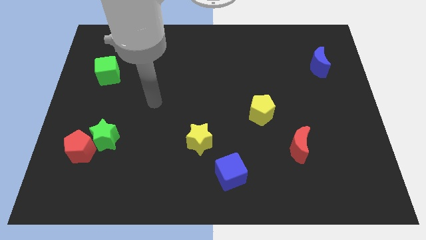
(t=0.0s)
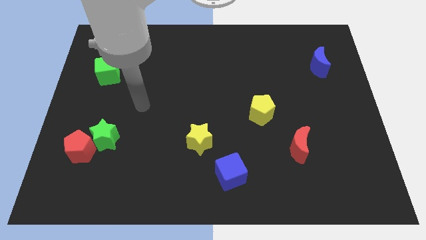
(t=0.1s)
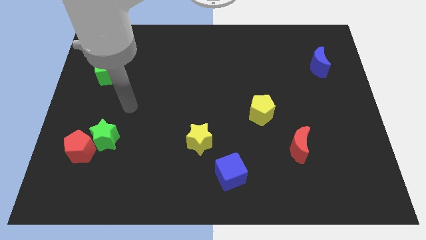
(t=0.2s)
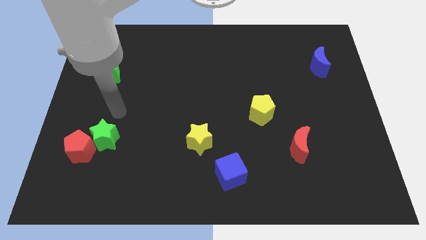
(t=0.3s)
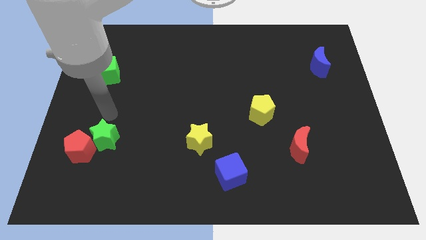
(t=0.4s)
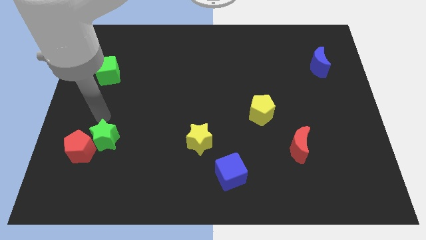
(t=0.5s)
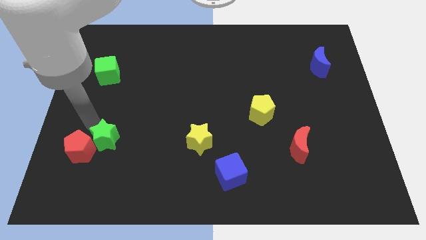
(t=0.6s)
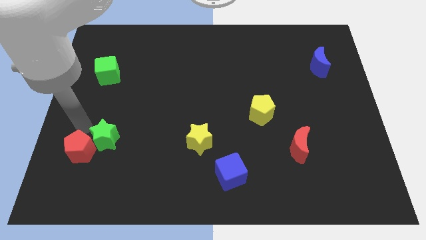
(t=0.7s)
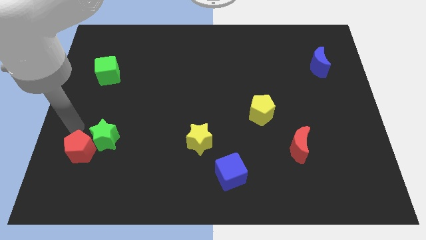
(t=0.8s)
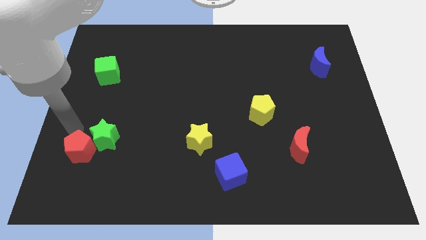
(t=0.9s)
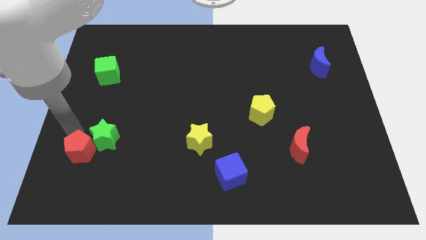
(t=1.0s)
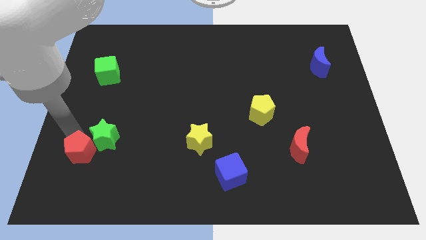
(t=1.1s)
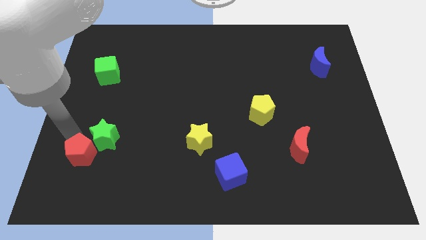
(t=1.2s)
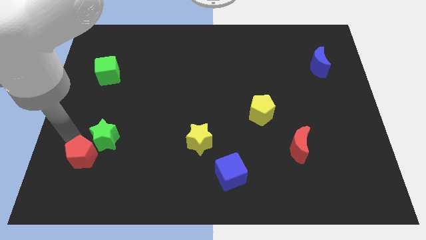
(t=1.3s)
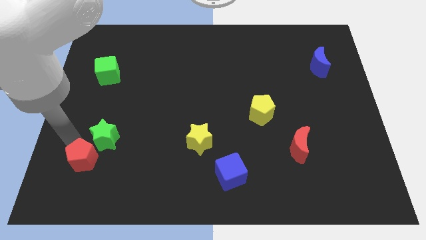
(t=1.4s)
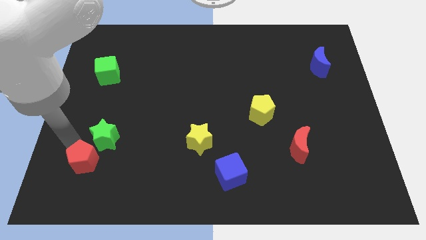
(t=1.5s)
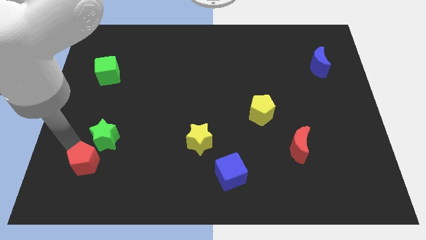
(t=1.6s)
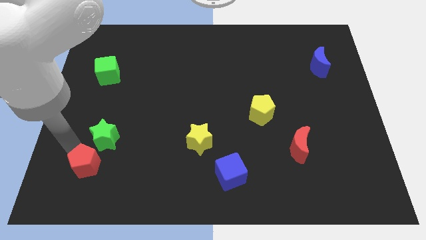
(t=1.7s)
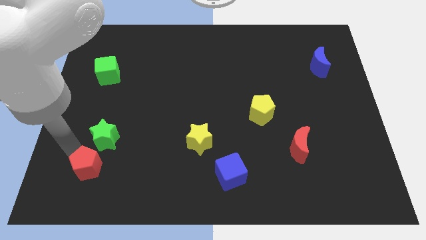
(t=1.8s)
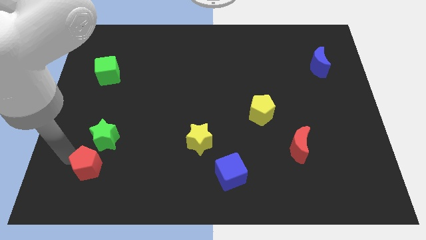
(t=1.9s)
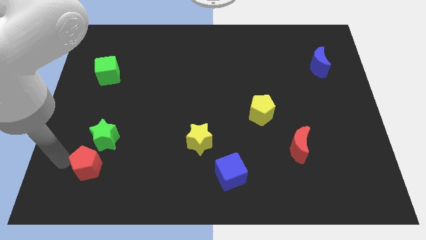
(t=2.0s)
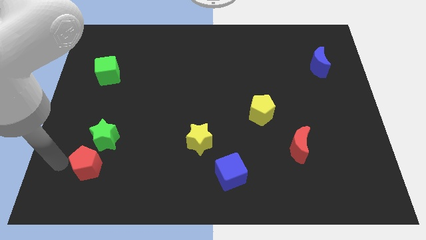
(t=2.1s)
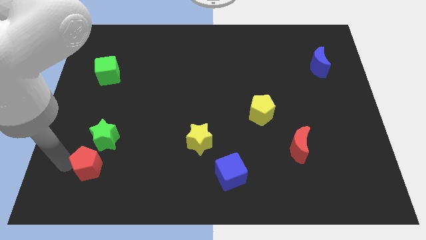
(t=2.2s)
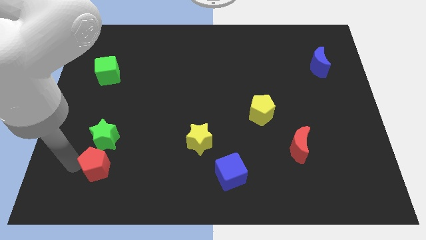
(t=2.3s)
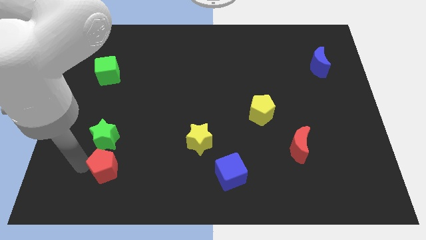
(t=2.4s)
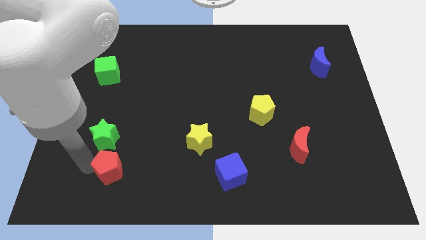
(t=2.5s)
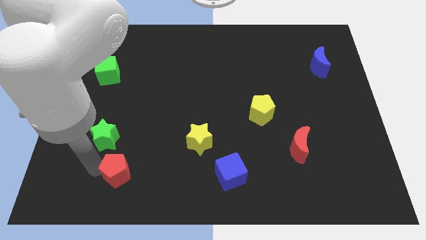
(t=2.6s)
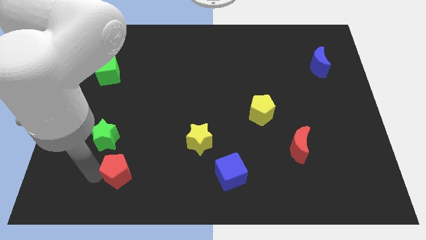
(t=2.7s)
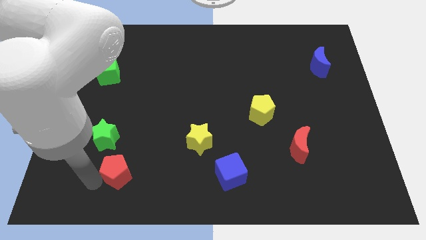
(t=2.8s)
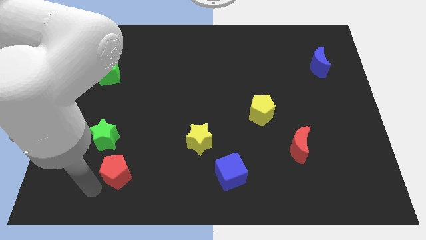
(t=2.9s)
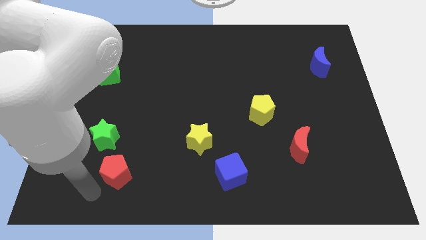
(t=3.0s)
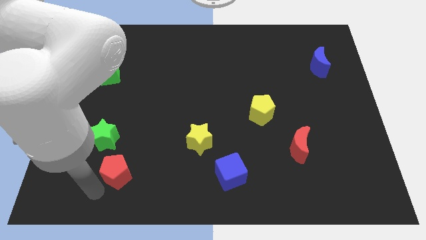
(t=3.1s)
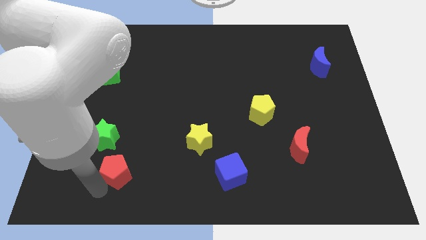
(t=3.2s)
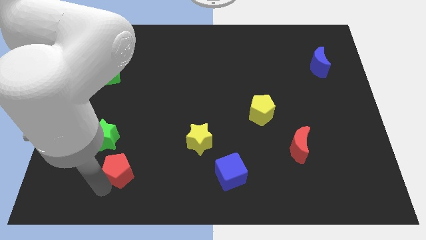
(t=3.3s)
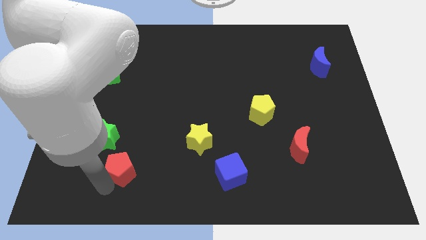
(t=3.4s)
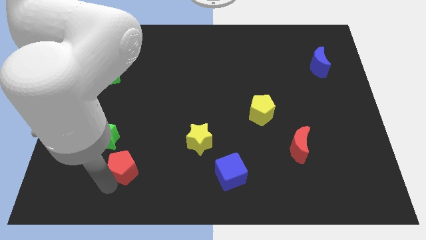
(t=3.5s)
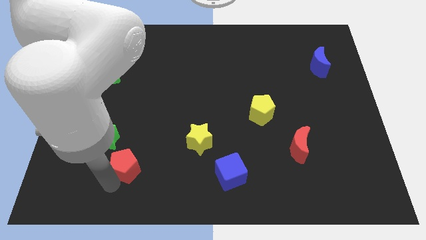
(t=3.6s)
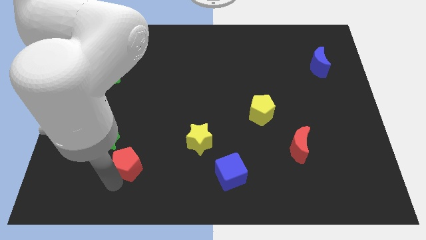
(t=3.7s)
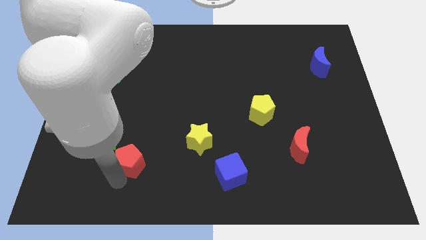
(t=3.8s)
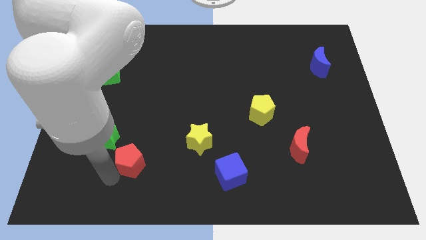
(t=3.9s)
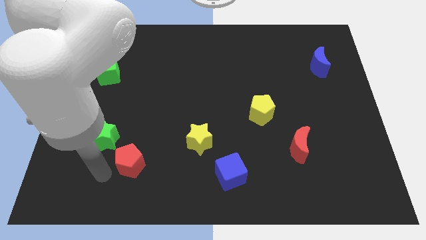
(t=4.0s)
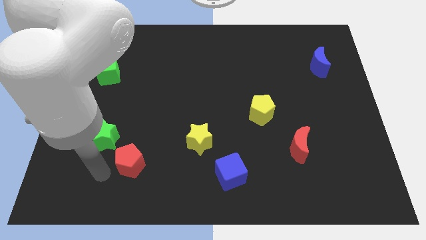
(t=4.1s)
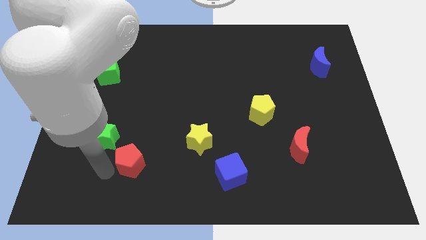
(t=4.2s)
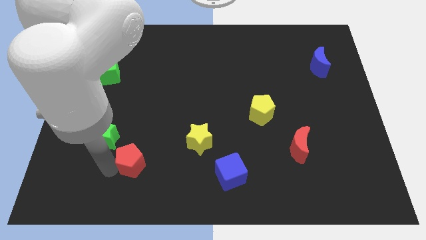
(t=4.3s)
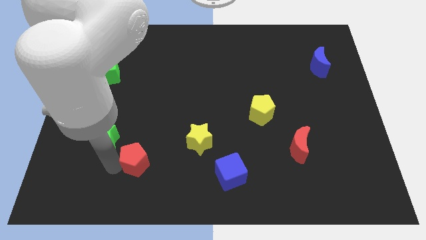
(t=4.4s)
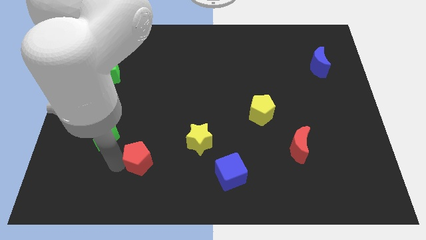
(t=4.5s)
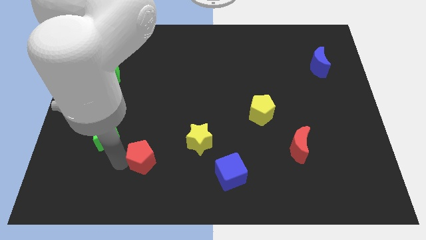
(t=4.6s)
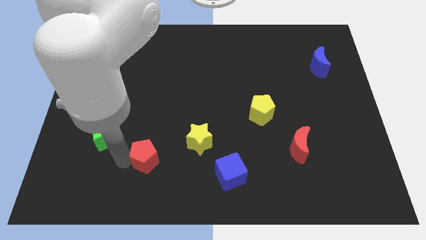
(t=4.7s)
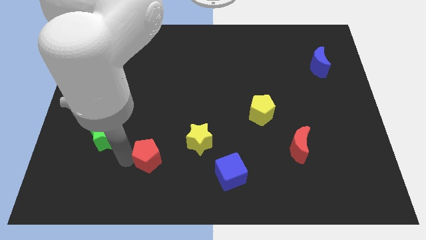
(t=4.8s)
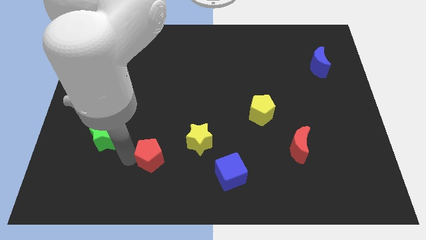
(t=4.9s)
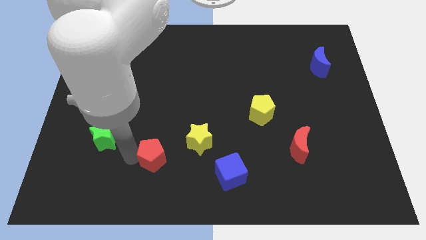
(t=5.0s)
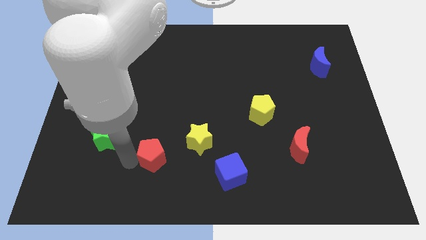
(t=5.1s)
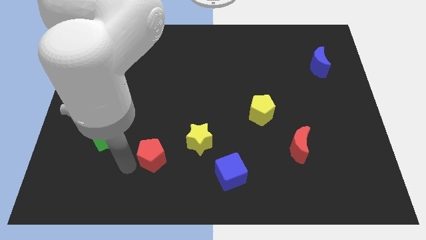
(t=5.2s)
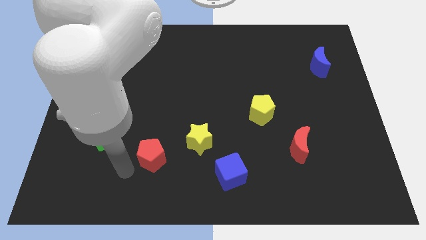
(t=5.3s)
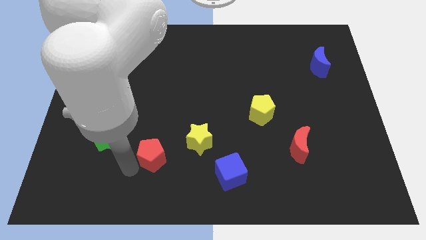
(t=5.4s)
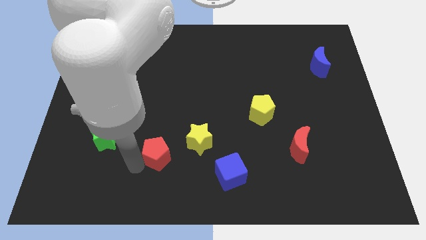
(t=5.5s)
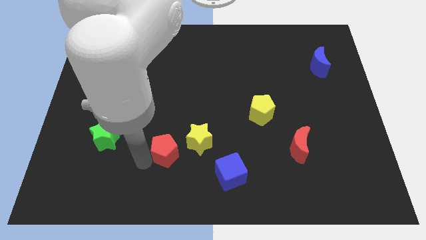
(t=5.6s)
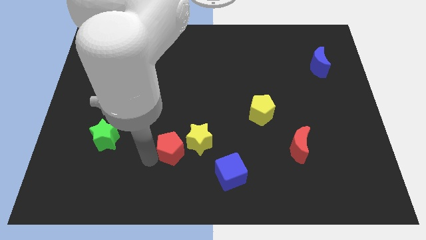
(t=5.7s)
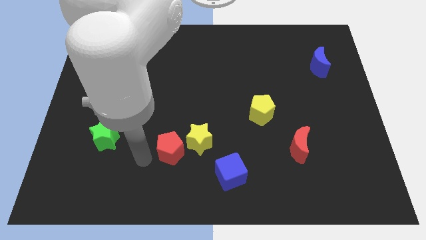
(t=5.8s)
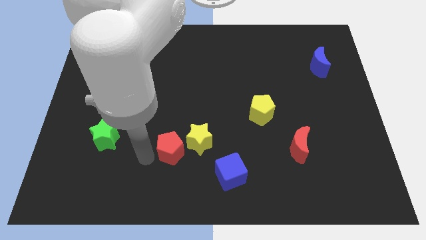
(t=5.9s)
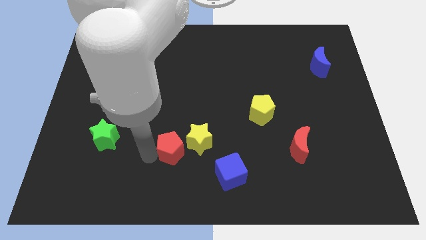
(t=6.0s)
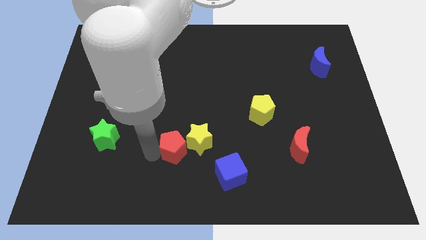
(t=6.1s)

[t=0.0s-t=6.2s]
push the red pentagon close to the yellow star

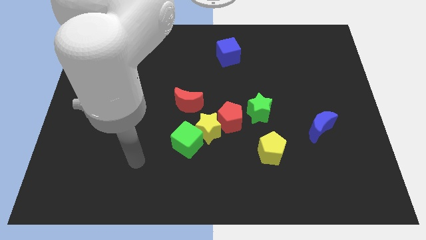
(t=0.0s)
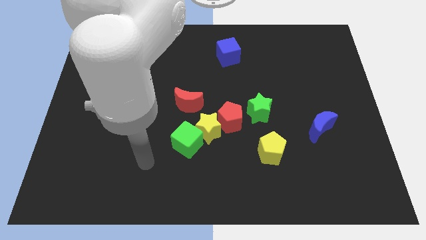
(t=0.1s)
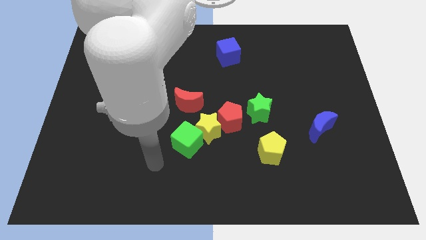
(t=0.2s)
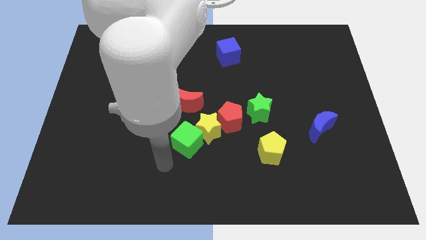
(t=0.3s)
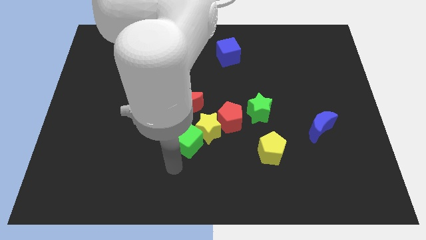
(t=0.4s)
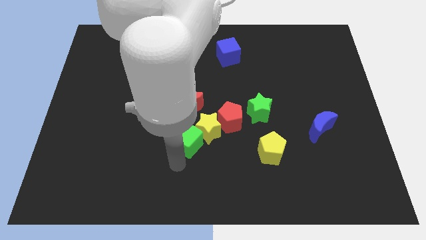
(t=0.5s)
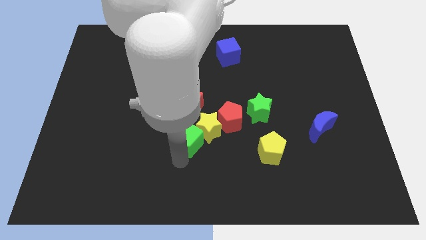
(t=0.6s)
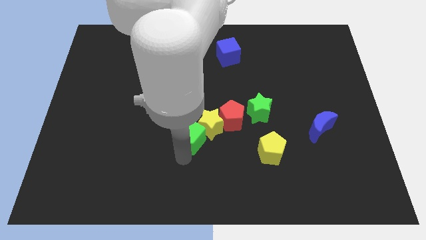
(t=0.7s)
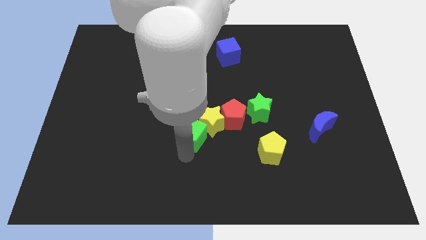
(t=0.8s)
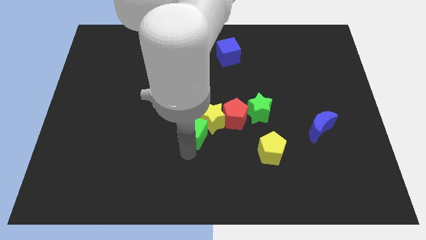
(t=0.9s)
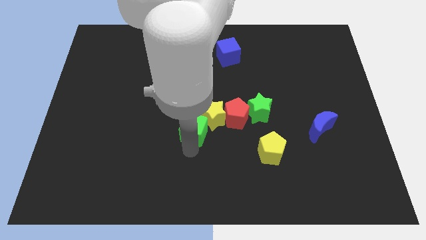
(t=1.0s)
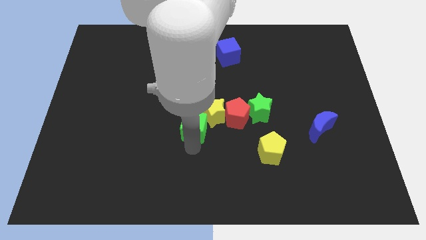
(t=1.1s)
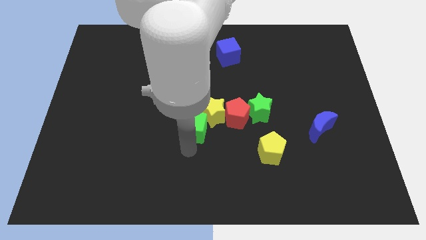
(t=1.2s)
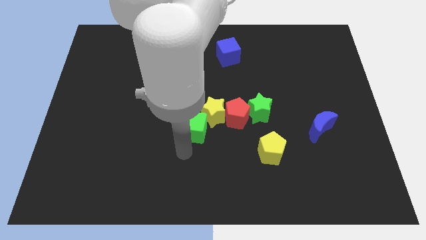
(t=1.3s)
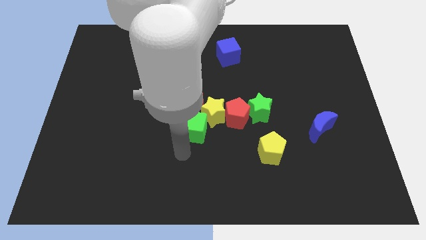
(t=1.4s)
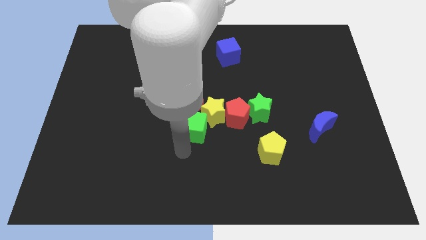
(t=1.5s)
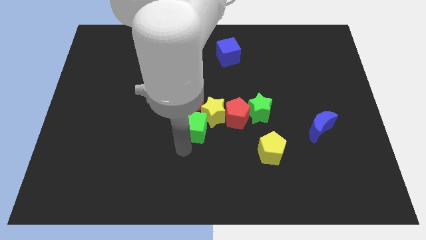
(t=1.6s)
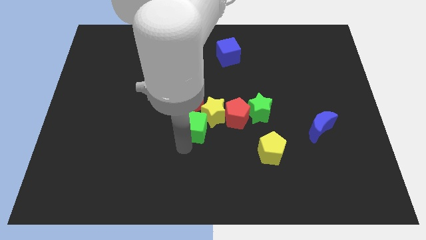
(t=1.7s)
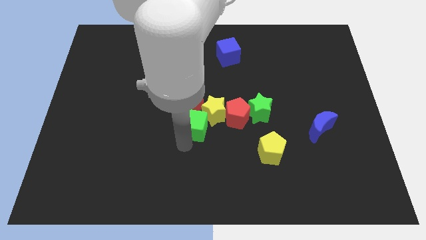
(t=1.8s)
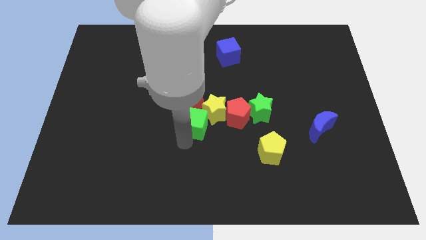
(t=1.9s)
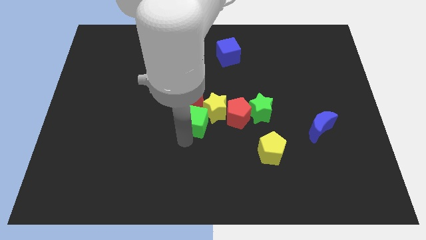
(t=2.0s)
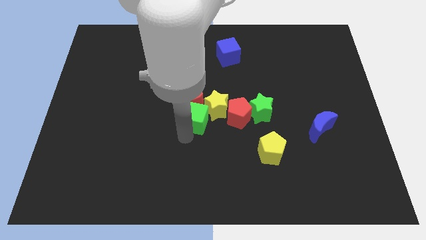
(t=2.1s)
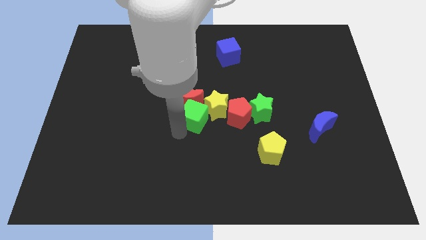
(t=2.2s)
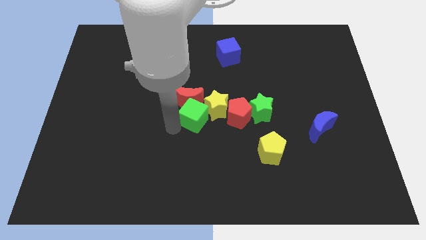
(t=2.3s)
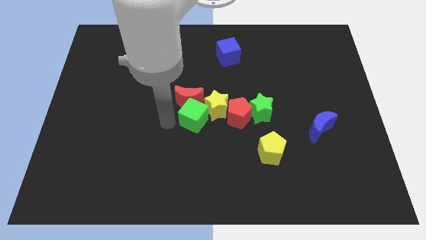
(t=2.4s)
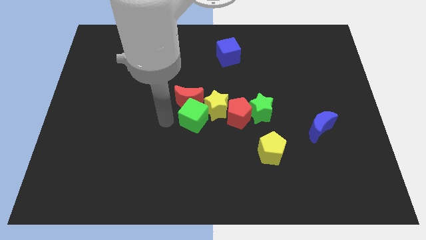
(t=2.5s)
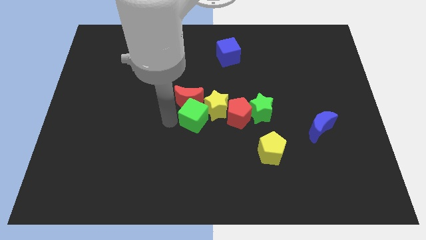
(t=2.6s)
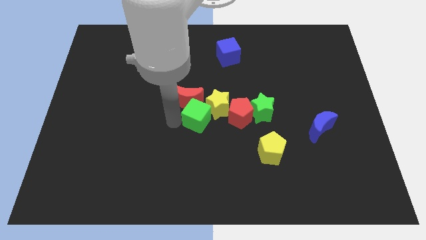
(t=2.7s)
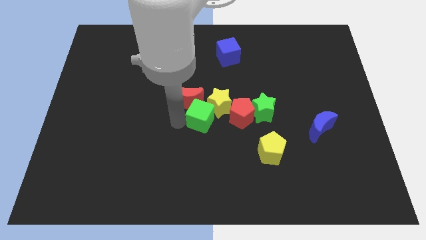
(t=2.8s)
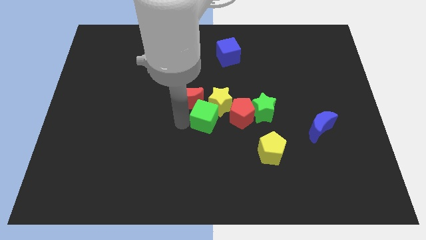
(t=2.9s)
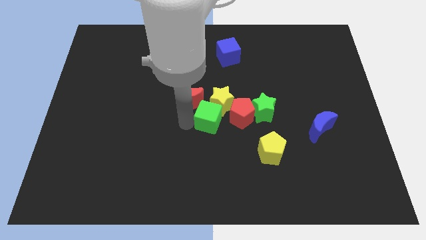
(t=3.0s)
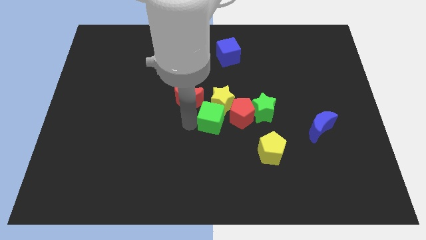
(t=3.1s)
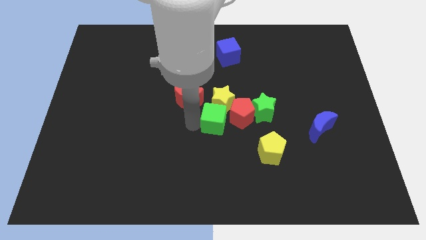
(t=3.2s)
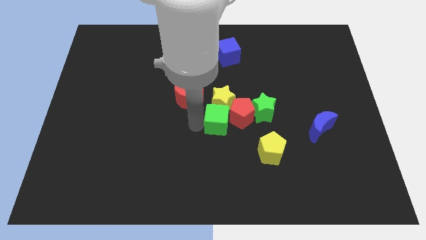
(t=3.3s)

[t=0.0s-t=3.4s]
push the green cube next to the red pentagon
